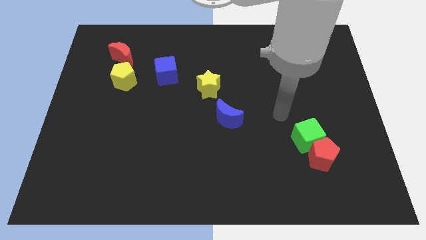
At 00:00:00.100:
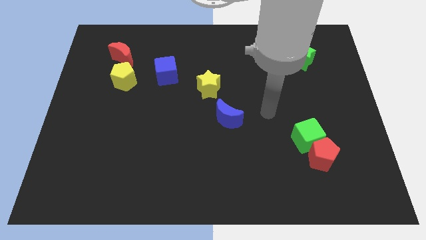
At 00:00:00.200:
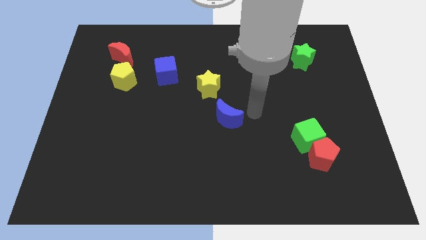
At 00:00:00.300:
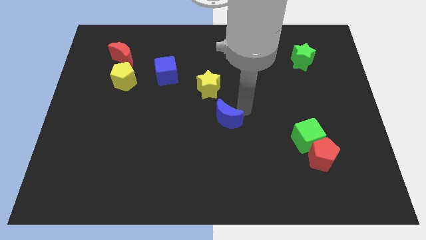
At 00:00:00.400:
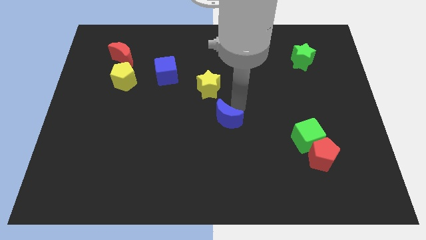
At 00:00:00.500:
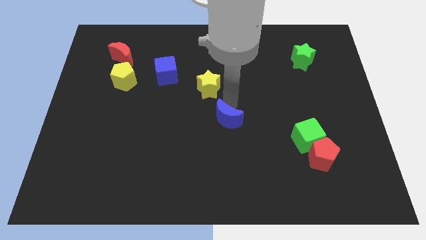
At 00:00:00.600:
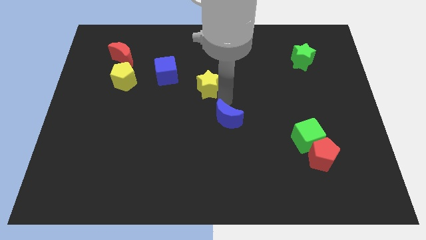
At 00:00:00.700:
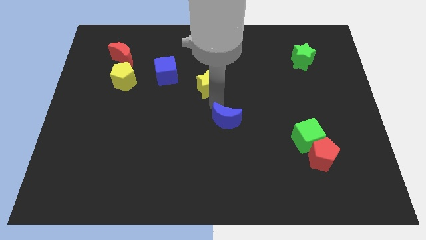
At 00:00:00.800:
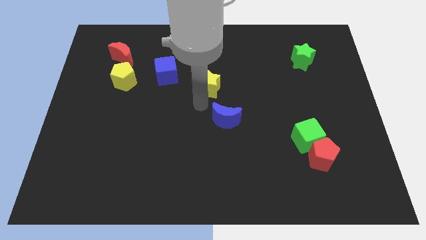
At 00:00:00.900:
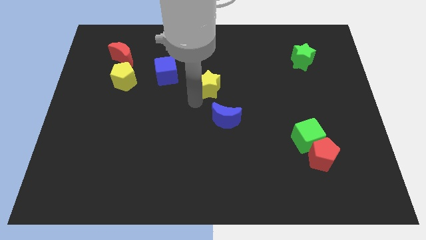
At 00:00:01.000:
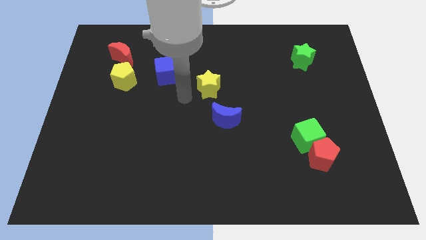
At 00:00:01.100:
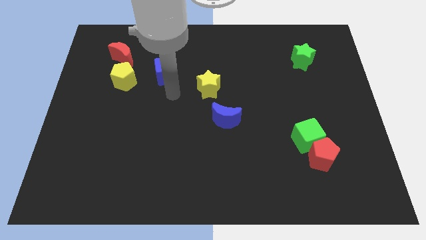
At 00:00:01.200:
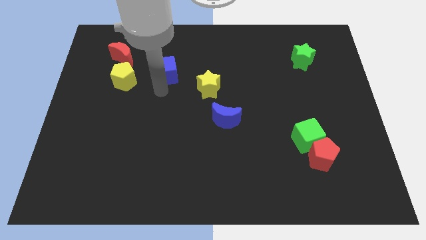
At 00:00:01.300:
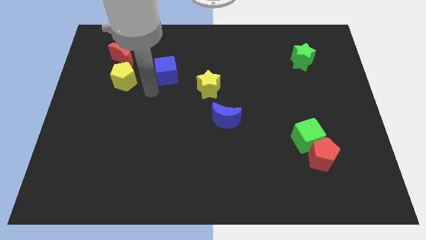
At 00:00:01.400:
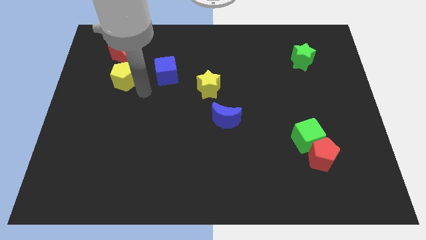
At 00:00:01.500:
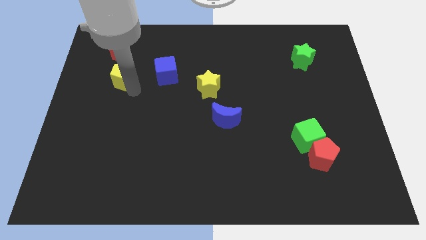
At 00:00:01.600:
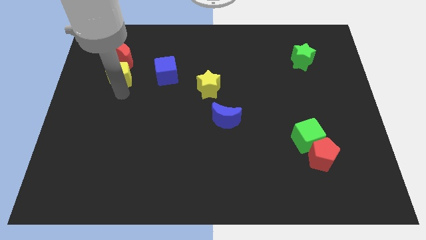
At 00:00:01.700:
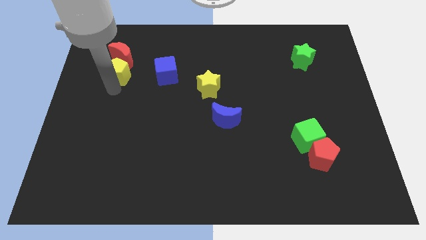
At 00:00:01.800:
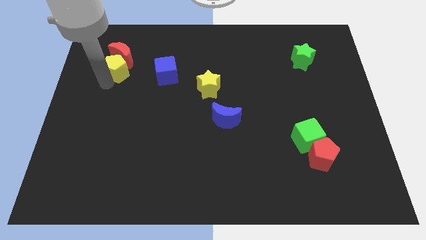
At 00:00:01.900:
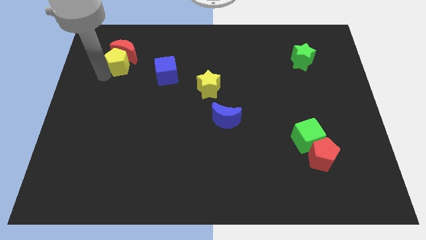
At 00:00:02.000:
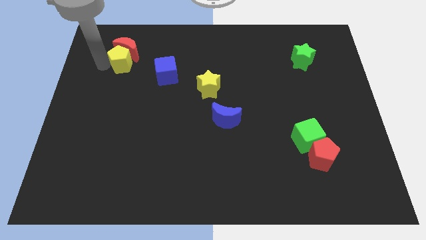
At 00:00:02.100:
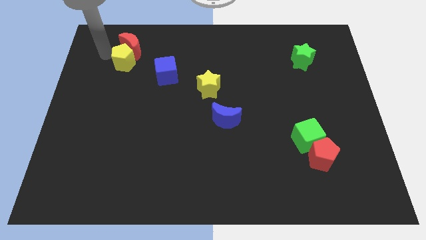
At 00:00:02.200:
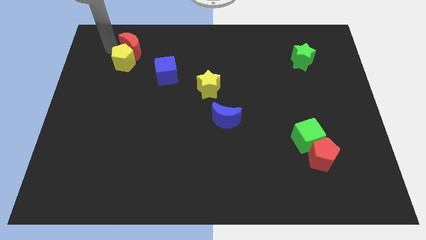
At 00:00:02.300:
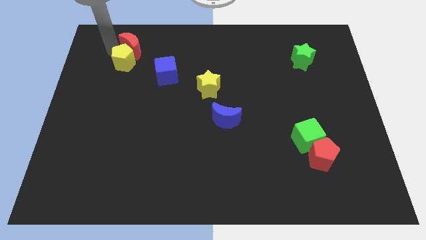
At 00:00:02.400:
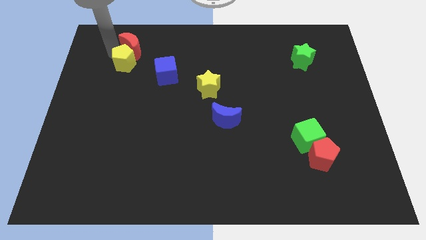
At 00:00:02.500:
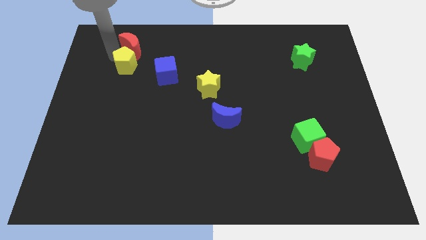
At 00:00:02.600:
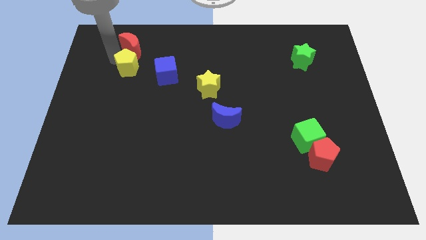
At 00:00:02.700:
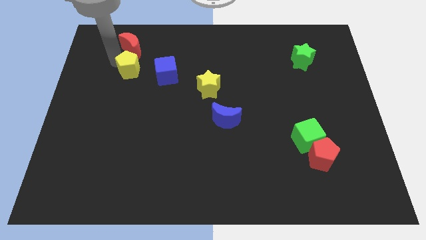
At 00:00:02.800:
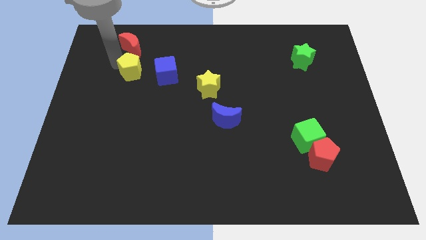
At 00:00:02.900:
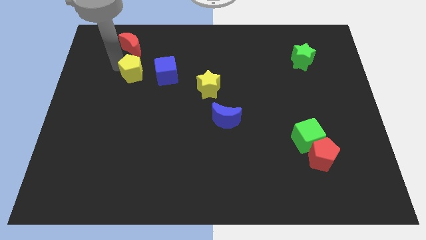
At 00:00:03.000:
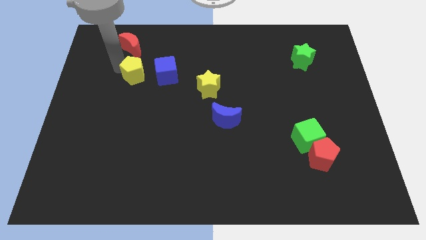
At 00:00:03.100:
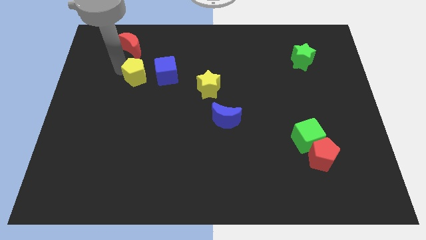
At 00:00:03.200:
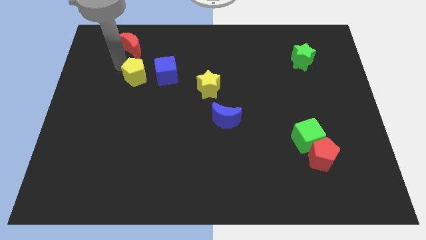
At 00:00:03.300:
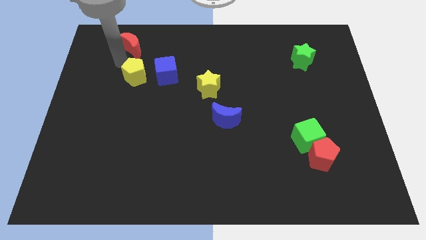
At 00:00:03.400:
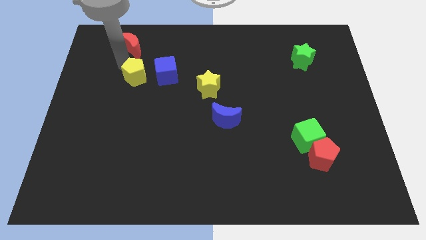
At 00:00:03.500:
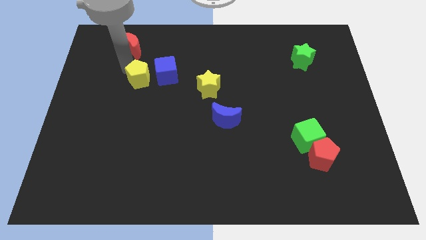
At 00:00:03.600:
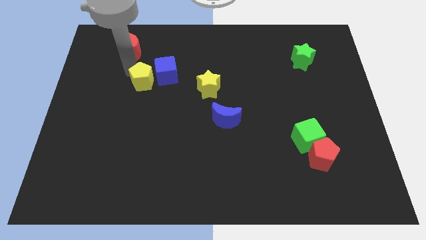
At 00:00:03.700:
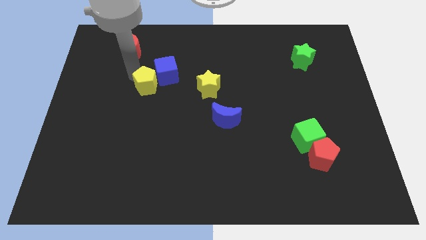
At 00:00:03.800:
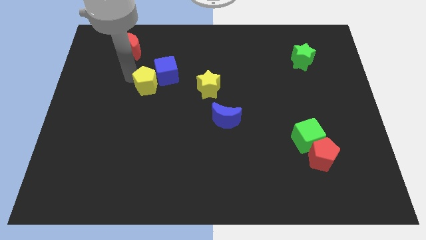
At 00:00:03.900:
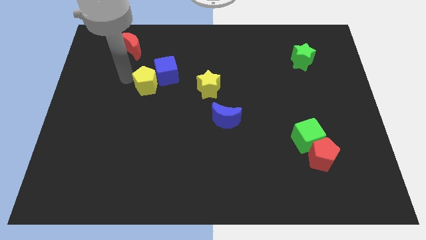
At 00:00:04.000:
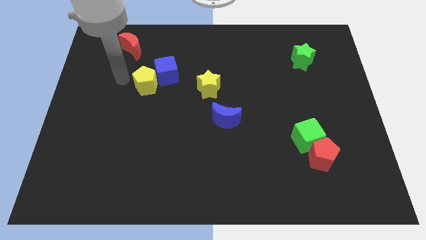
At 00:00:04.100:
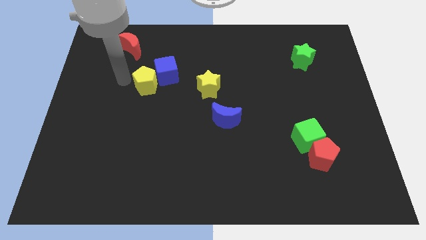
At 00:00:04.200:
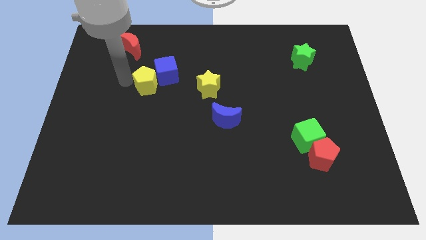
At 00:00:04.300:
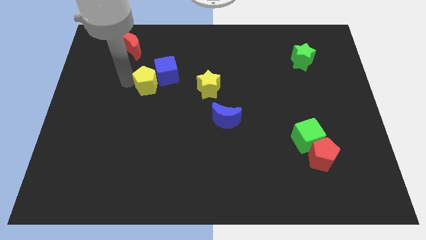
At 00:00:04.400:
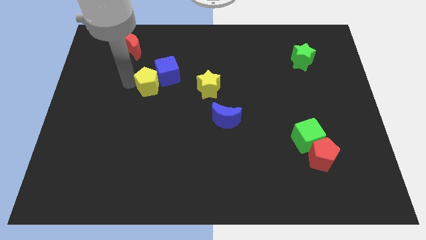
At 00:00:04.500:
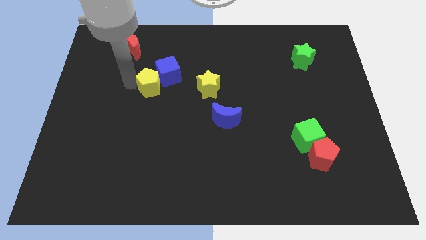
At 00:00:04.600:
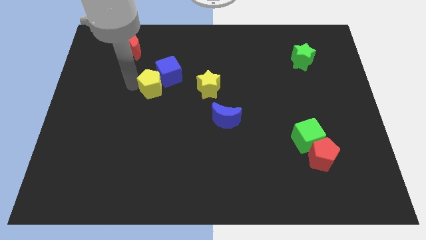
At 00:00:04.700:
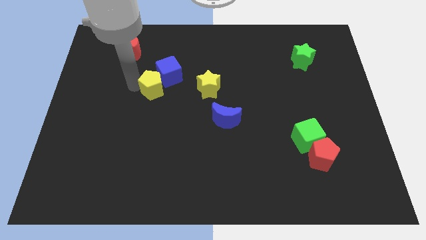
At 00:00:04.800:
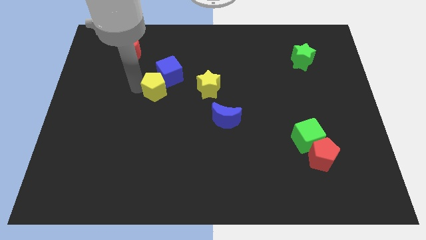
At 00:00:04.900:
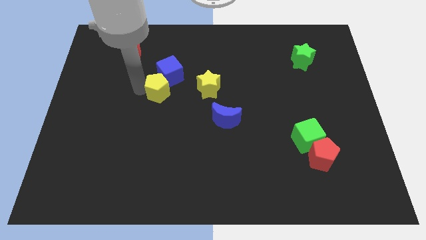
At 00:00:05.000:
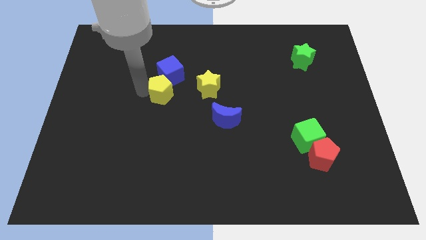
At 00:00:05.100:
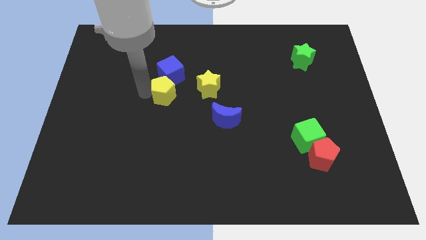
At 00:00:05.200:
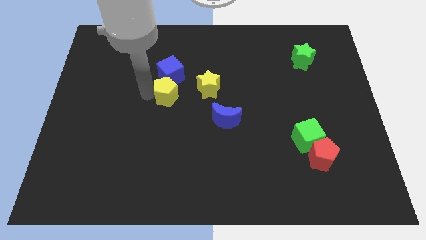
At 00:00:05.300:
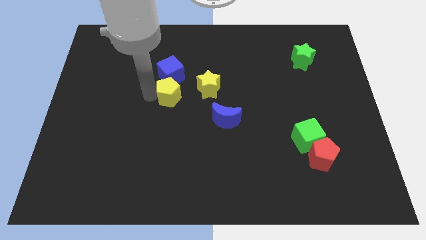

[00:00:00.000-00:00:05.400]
slide the yellow pentagon diagonally down and to the right of the blue cube
